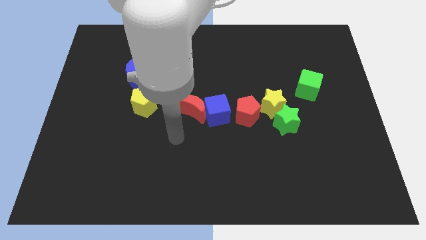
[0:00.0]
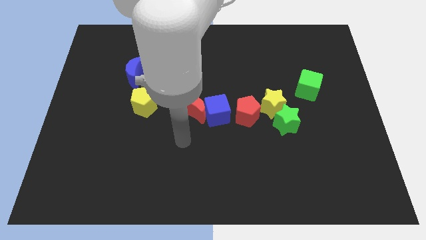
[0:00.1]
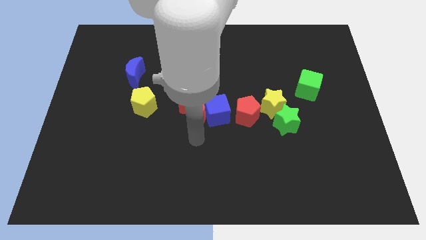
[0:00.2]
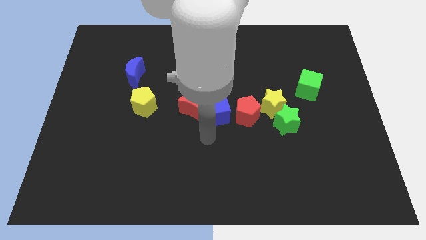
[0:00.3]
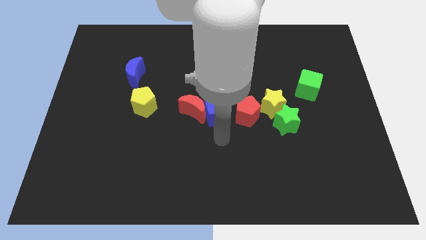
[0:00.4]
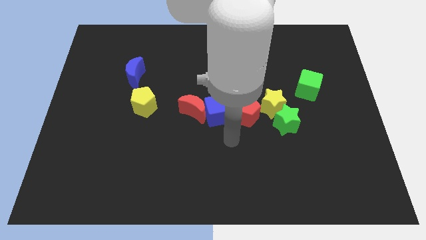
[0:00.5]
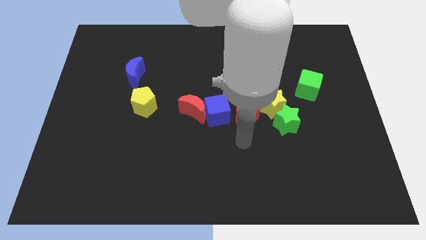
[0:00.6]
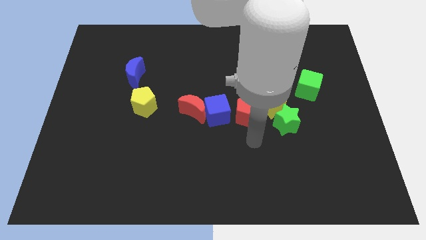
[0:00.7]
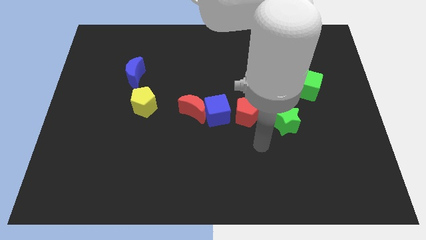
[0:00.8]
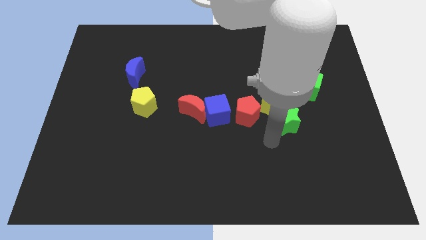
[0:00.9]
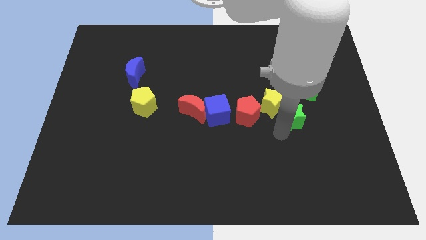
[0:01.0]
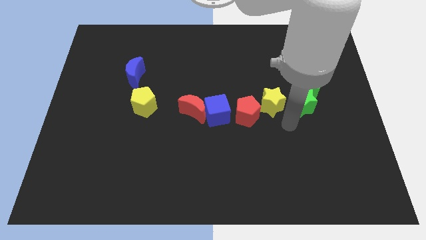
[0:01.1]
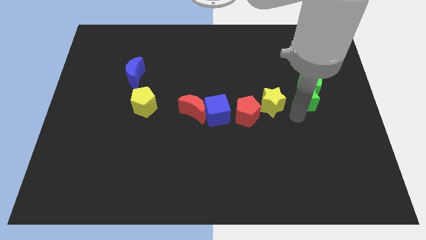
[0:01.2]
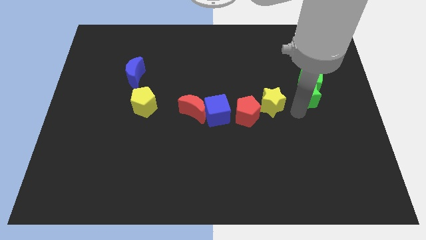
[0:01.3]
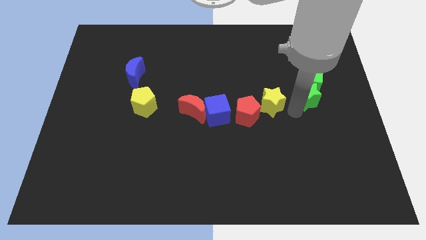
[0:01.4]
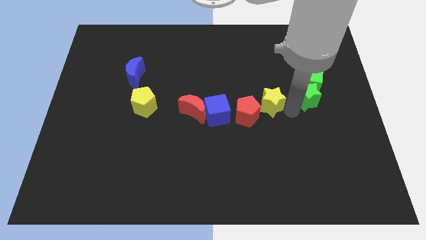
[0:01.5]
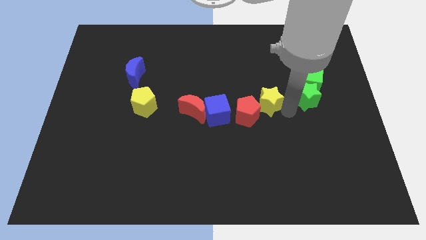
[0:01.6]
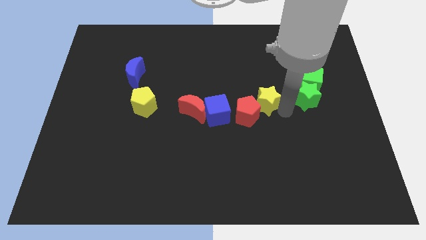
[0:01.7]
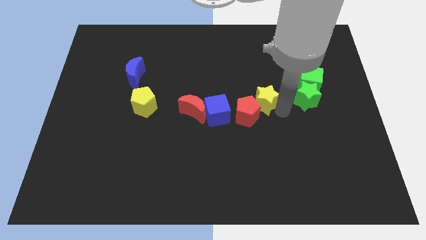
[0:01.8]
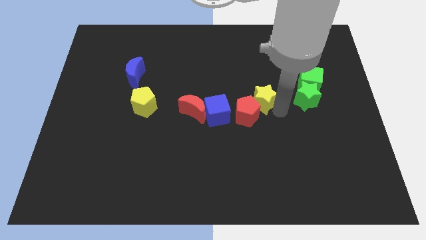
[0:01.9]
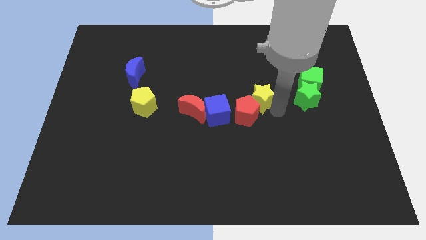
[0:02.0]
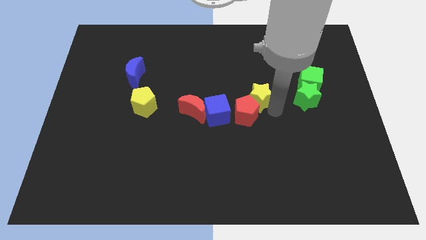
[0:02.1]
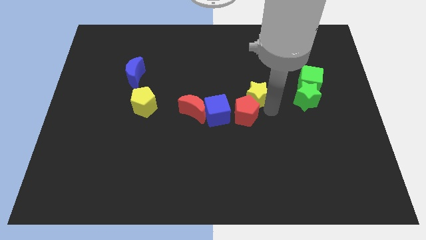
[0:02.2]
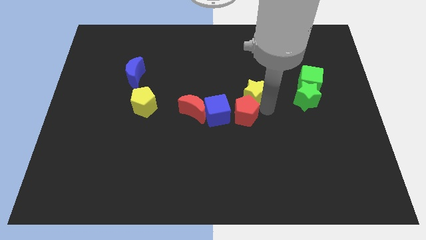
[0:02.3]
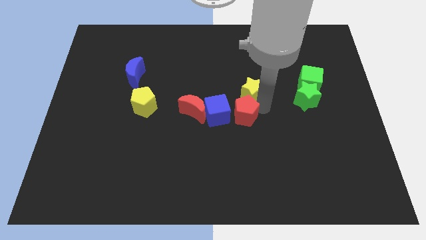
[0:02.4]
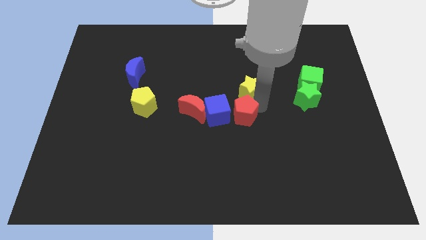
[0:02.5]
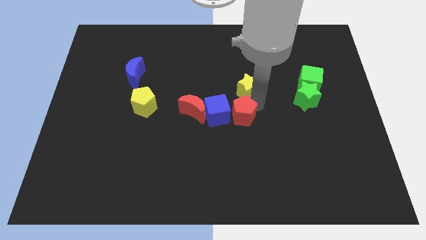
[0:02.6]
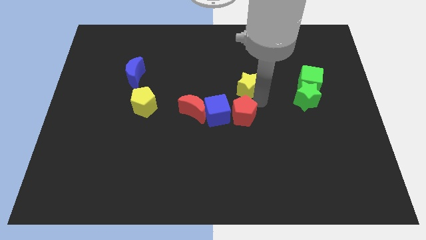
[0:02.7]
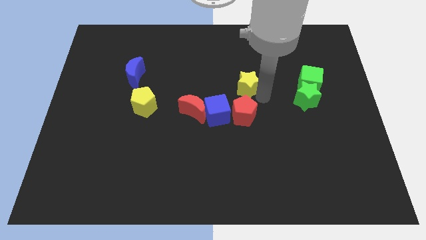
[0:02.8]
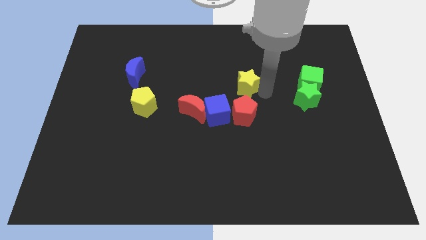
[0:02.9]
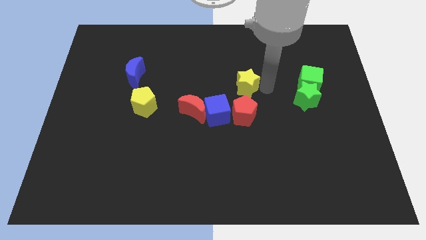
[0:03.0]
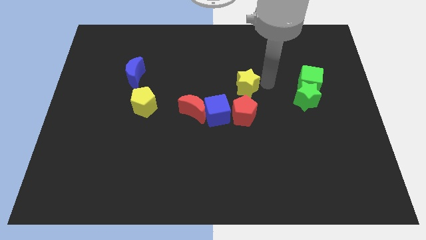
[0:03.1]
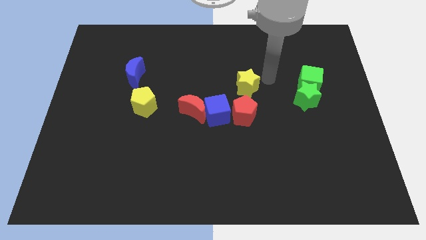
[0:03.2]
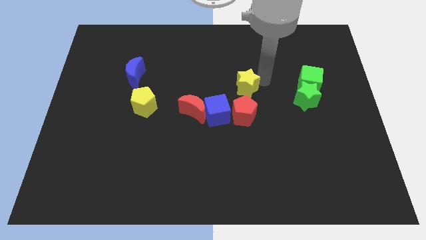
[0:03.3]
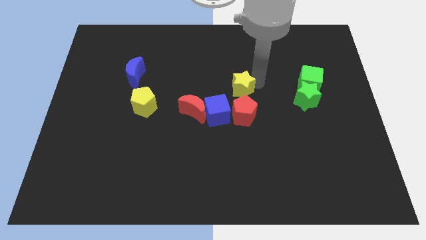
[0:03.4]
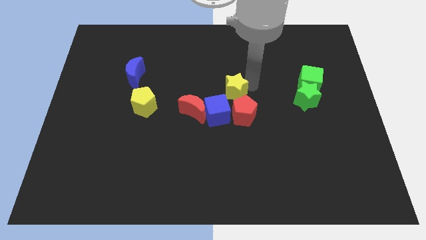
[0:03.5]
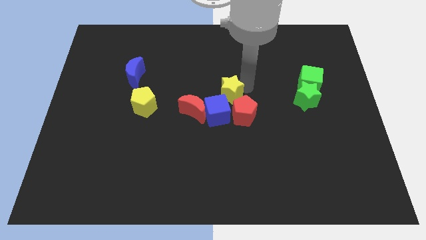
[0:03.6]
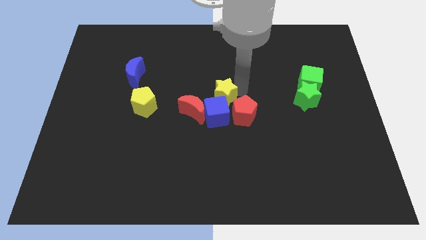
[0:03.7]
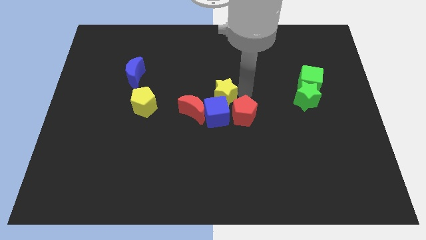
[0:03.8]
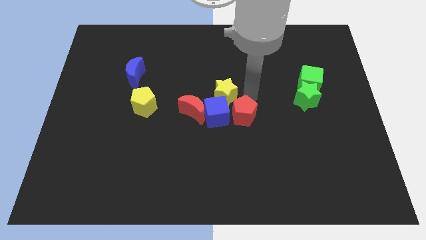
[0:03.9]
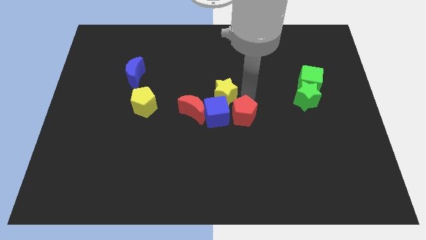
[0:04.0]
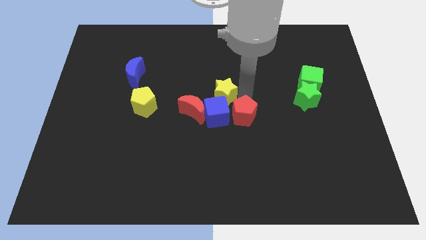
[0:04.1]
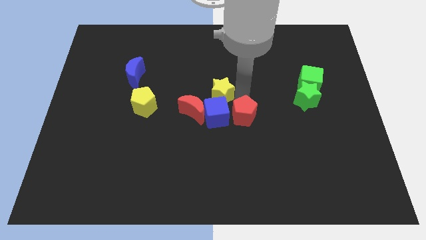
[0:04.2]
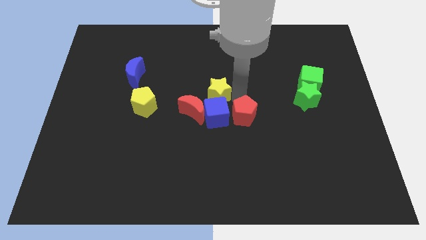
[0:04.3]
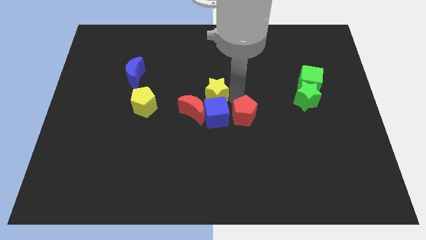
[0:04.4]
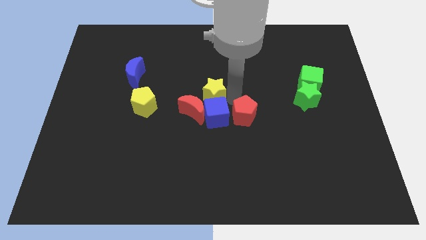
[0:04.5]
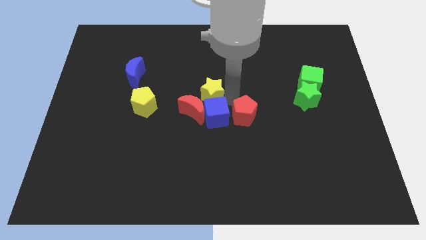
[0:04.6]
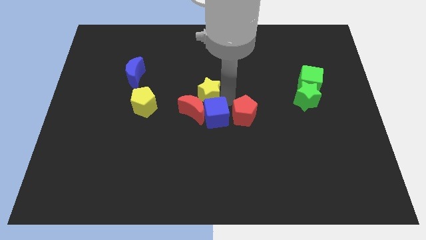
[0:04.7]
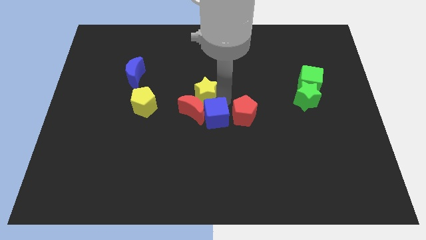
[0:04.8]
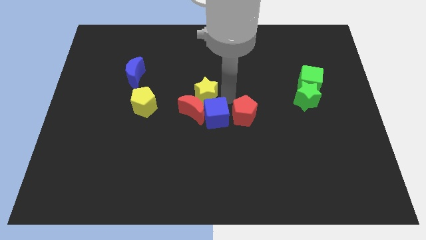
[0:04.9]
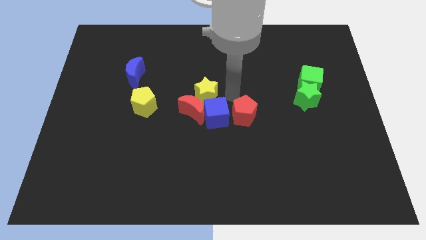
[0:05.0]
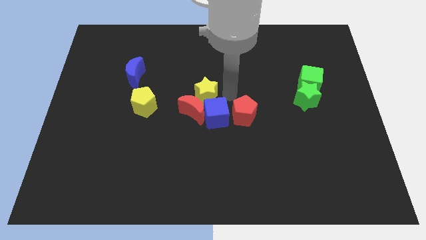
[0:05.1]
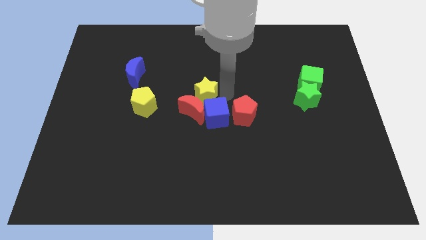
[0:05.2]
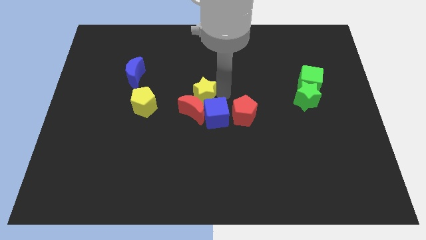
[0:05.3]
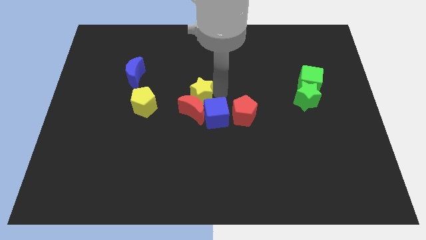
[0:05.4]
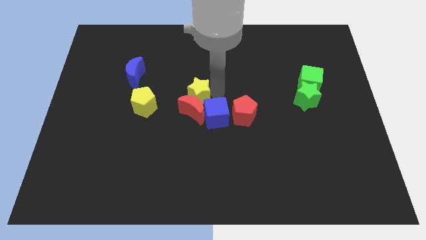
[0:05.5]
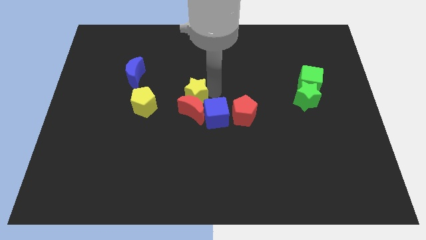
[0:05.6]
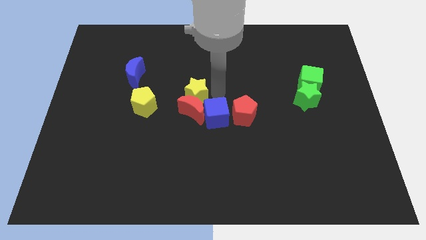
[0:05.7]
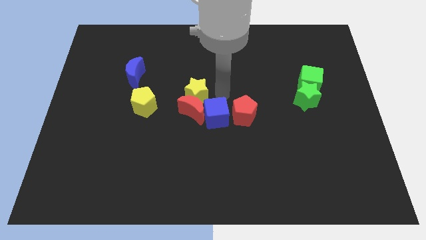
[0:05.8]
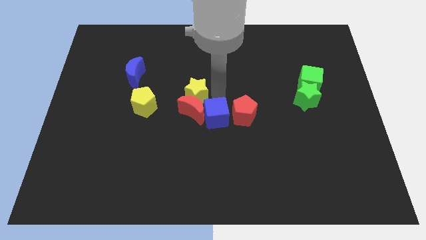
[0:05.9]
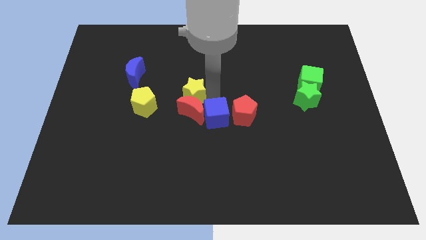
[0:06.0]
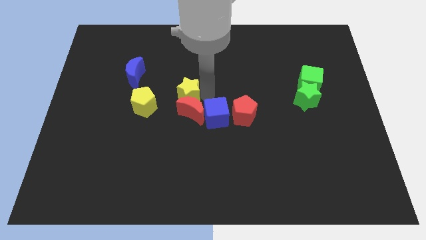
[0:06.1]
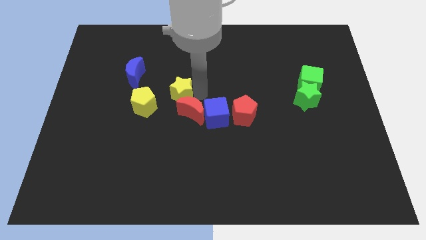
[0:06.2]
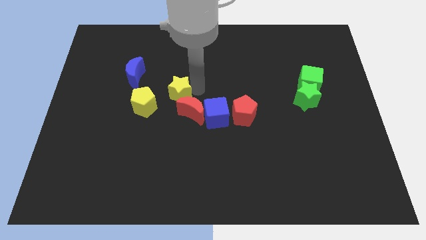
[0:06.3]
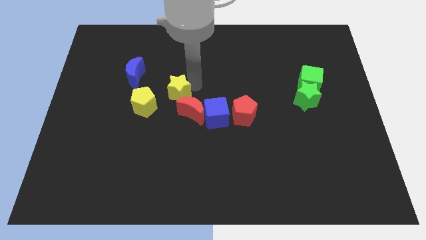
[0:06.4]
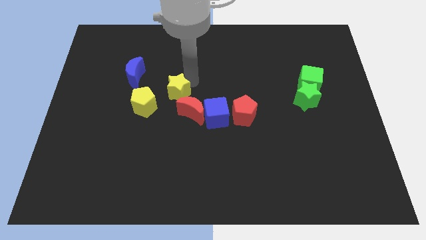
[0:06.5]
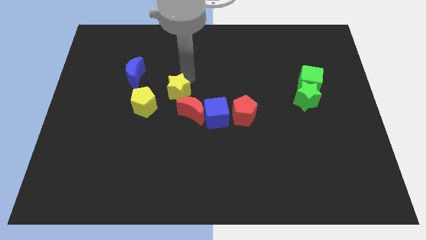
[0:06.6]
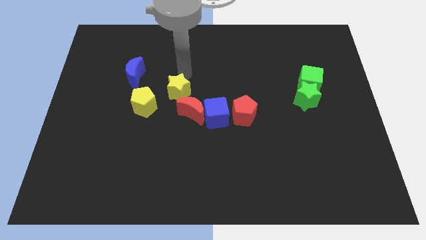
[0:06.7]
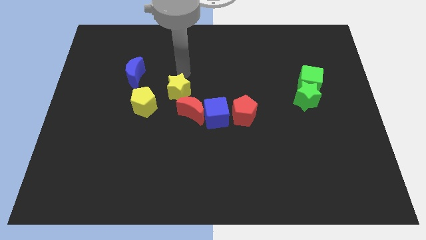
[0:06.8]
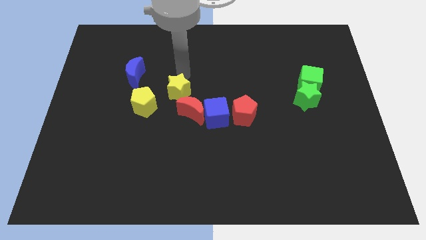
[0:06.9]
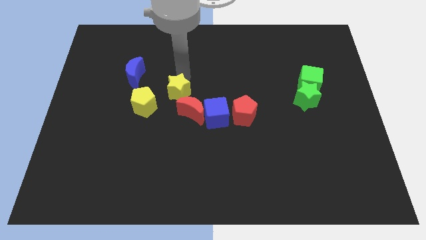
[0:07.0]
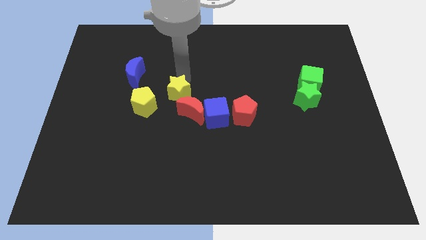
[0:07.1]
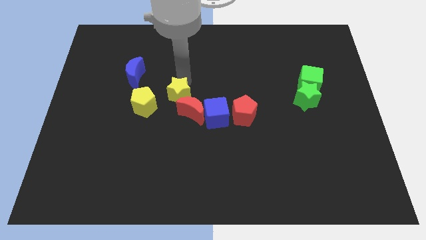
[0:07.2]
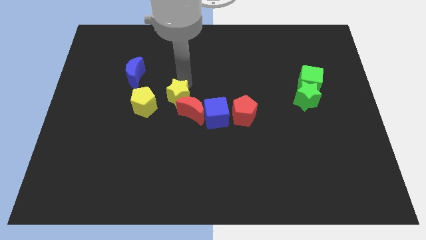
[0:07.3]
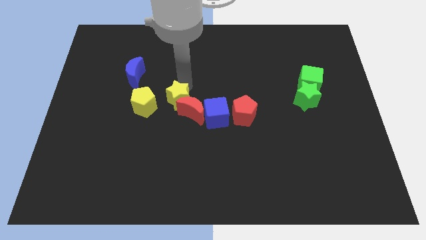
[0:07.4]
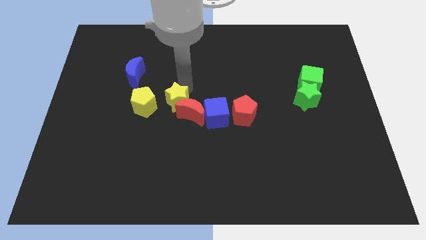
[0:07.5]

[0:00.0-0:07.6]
put the yellow star left of the blue cube

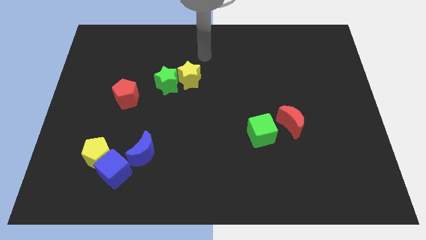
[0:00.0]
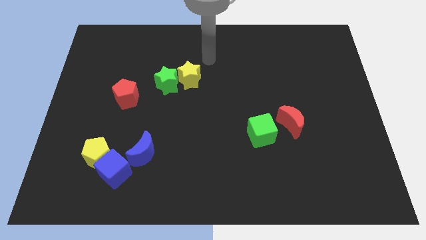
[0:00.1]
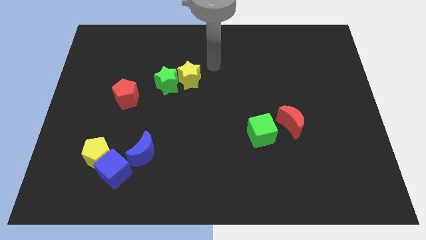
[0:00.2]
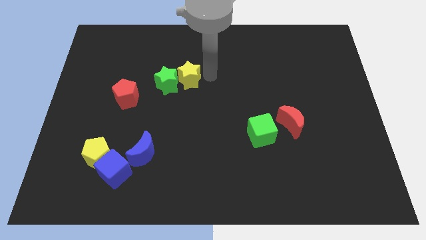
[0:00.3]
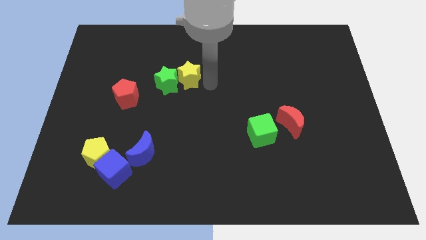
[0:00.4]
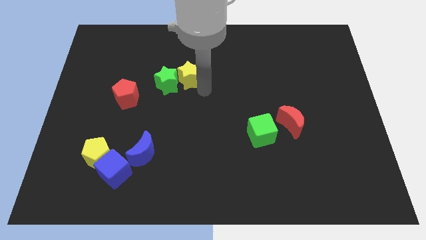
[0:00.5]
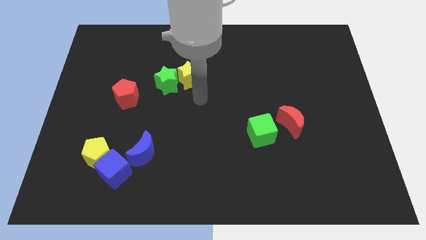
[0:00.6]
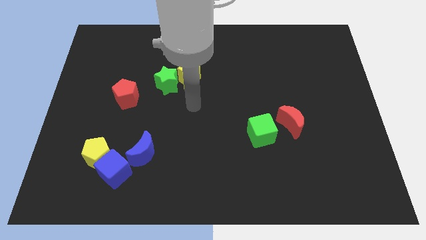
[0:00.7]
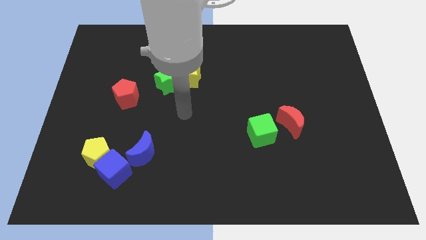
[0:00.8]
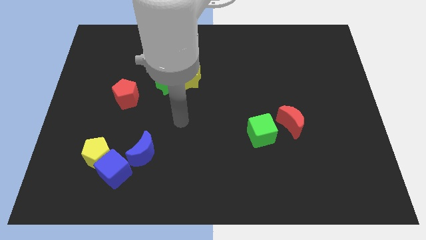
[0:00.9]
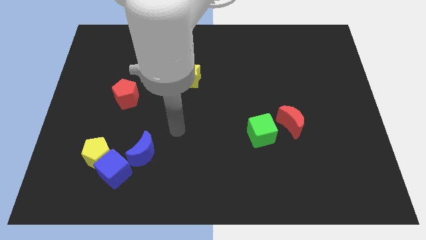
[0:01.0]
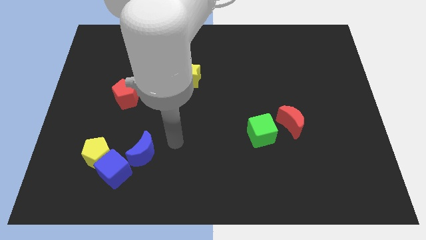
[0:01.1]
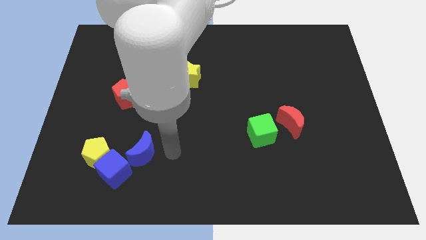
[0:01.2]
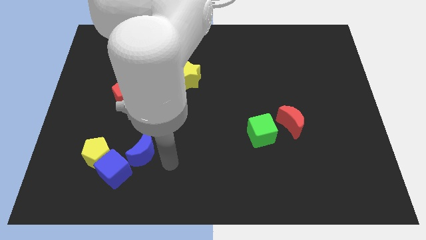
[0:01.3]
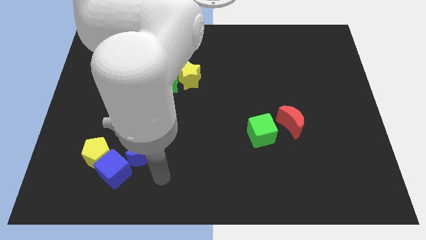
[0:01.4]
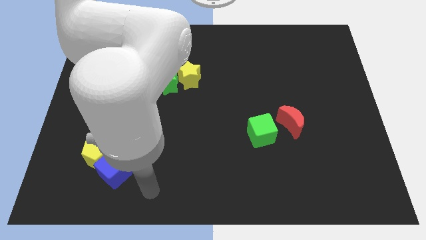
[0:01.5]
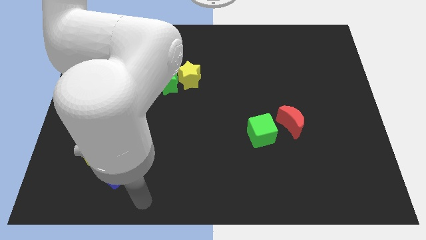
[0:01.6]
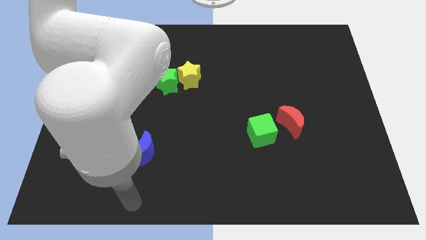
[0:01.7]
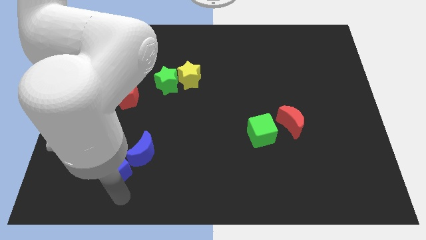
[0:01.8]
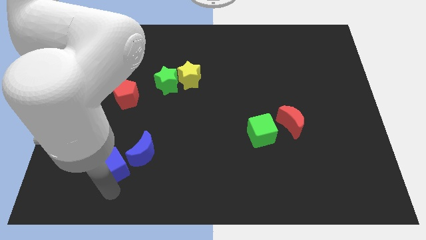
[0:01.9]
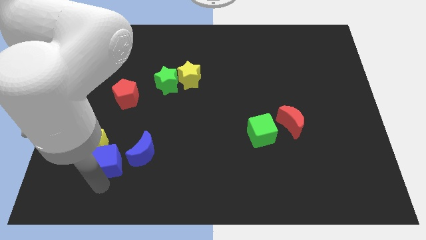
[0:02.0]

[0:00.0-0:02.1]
slide the yellow pentagon to the bottom side of the red pentagon
